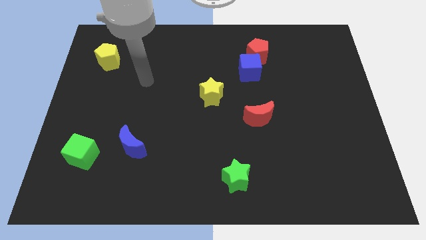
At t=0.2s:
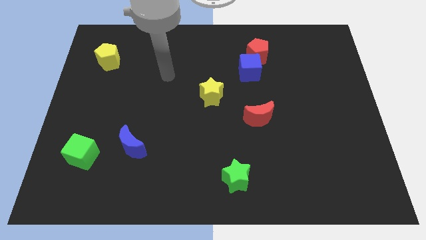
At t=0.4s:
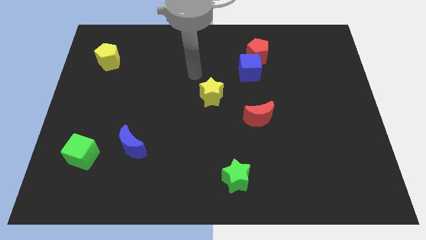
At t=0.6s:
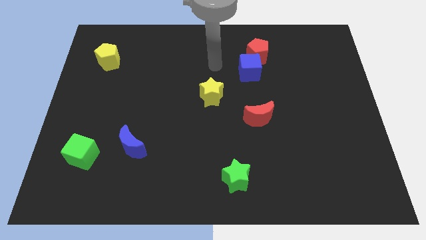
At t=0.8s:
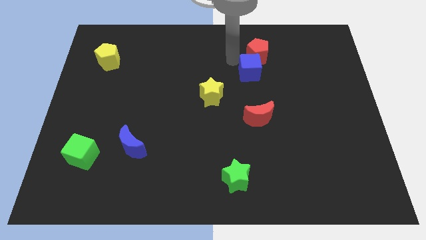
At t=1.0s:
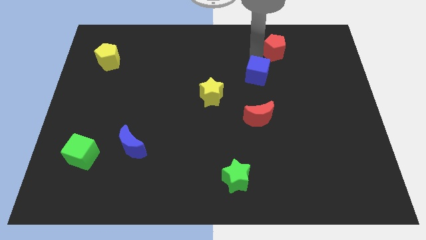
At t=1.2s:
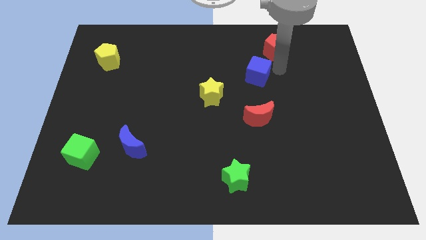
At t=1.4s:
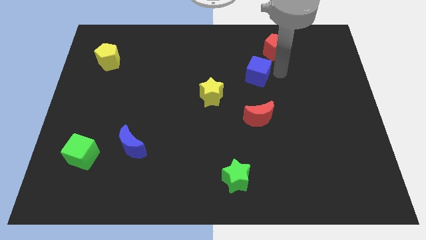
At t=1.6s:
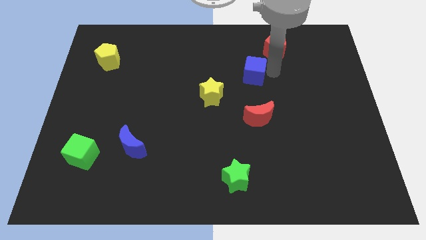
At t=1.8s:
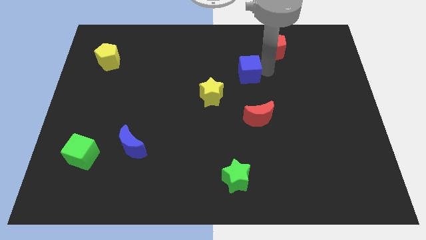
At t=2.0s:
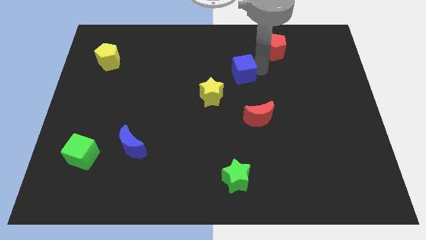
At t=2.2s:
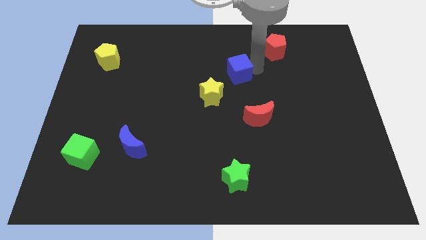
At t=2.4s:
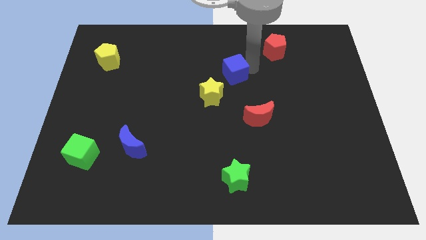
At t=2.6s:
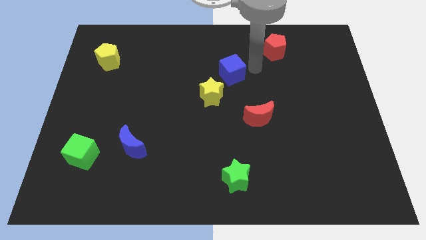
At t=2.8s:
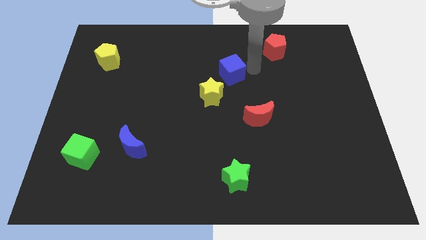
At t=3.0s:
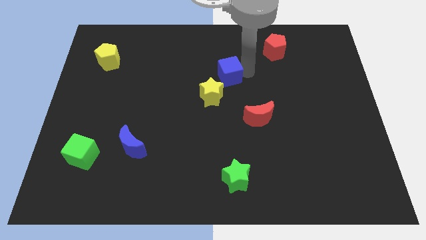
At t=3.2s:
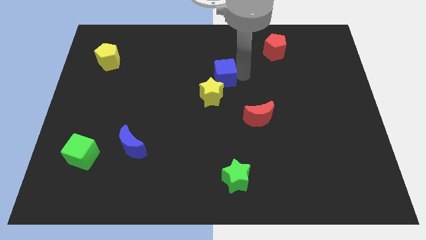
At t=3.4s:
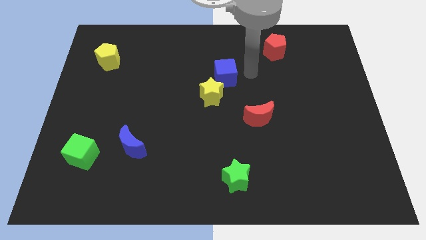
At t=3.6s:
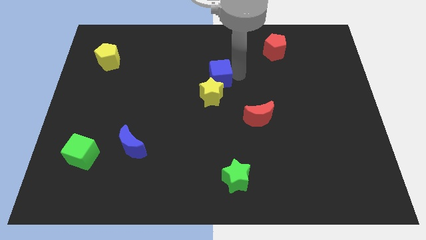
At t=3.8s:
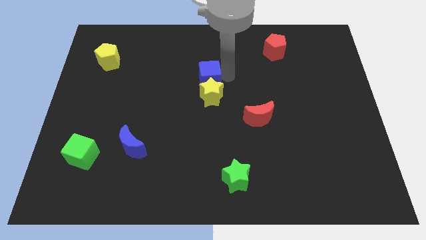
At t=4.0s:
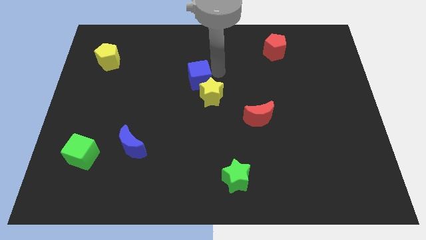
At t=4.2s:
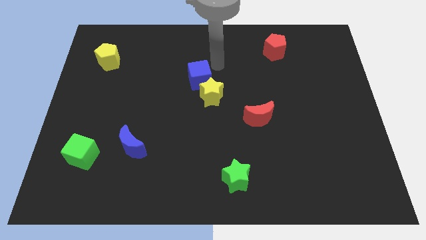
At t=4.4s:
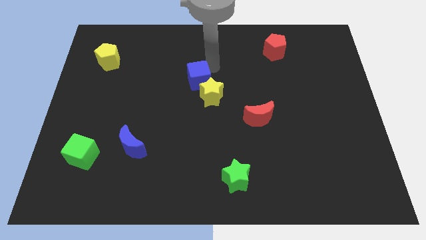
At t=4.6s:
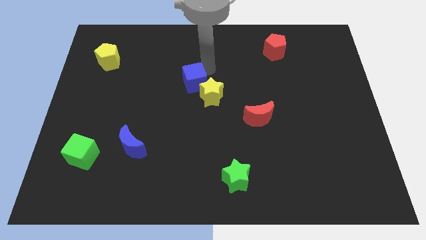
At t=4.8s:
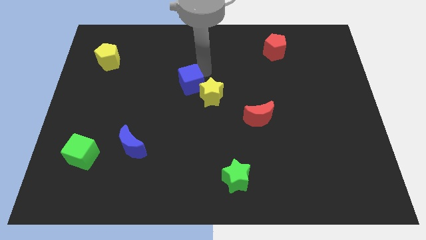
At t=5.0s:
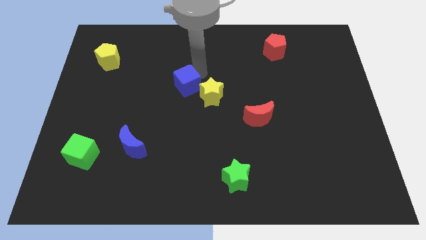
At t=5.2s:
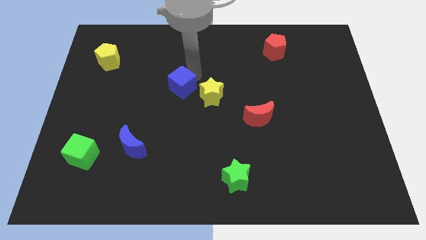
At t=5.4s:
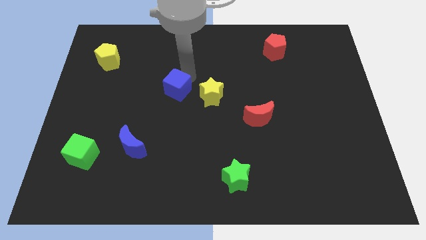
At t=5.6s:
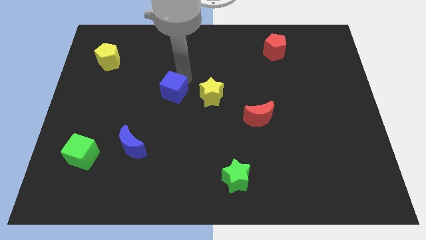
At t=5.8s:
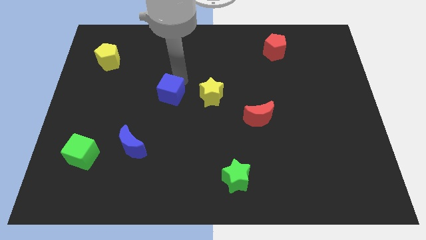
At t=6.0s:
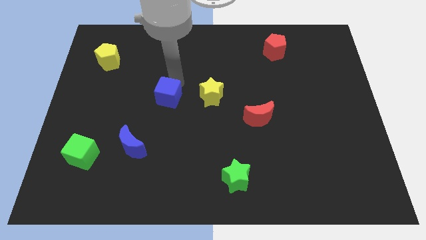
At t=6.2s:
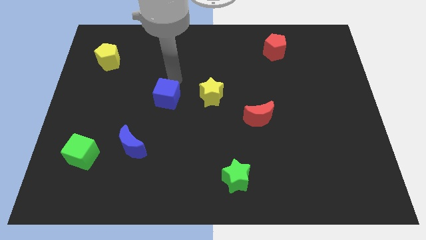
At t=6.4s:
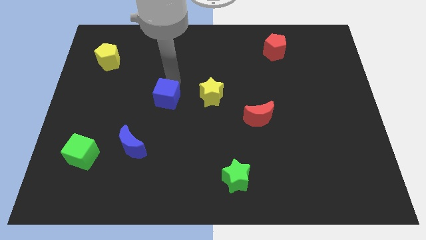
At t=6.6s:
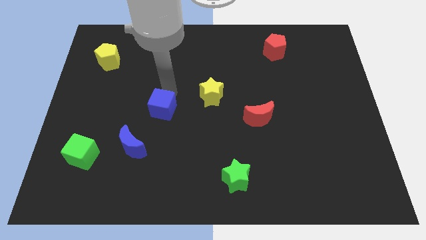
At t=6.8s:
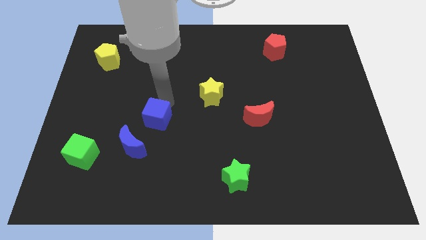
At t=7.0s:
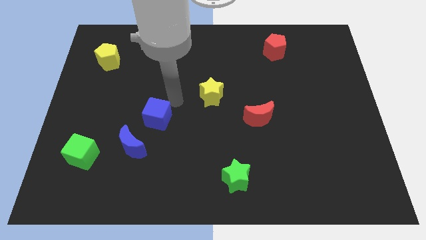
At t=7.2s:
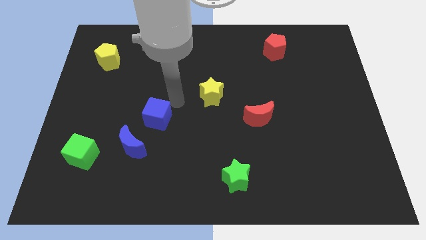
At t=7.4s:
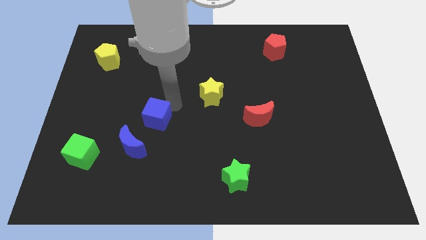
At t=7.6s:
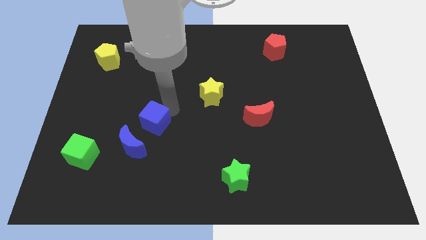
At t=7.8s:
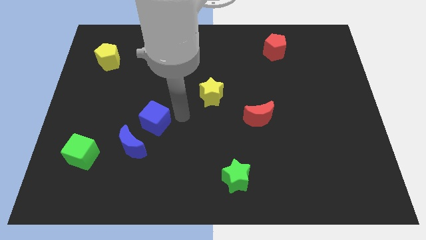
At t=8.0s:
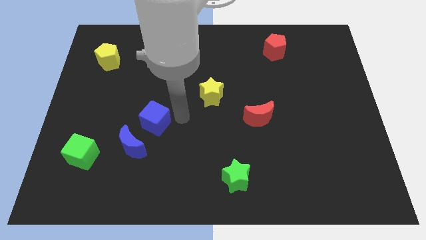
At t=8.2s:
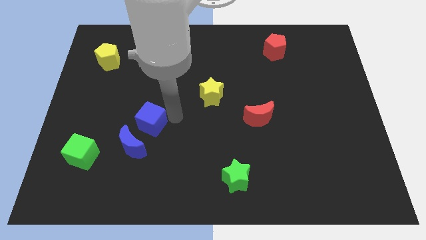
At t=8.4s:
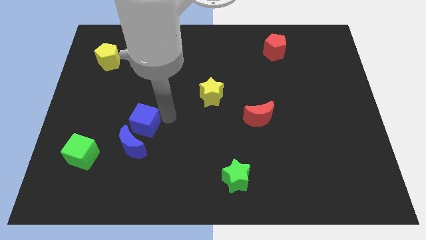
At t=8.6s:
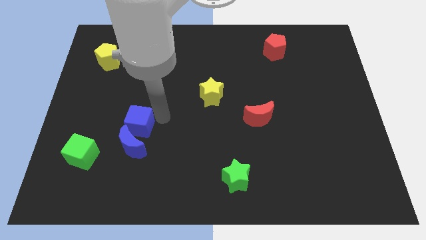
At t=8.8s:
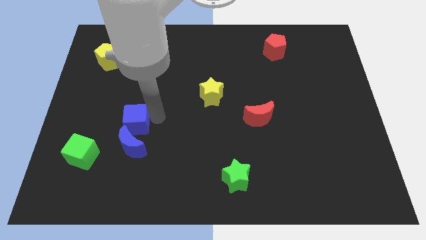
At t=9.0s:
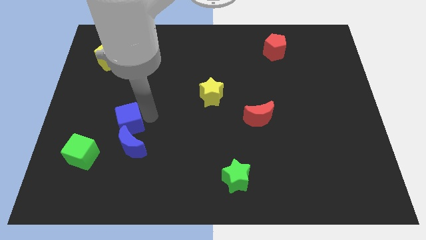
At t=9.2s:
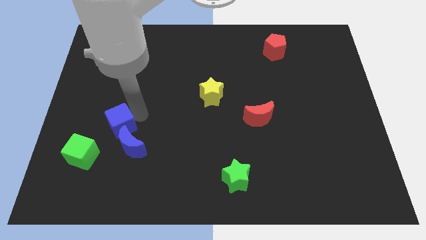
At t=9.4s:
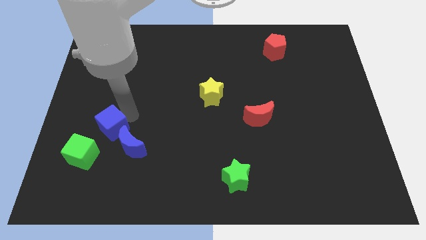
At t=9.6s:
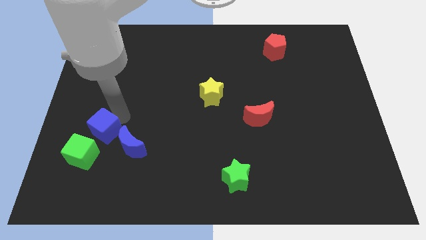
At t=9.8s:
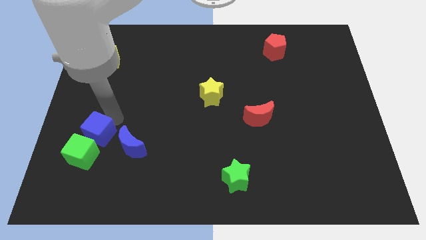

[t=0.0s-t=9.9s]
put the blue cube to the green cube

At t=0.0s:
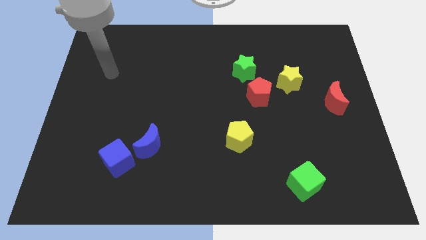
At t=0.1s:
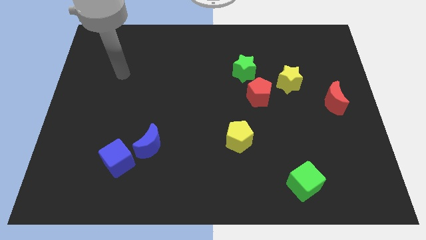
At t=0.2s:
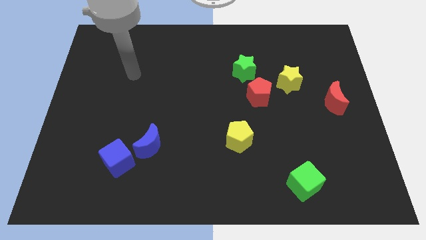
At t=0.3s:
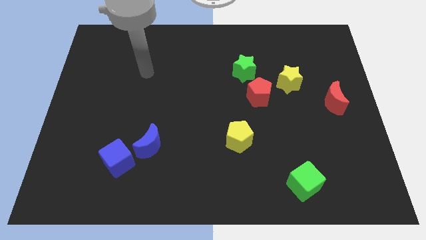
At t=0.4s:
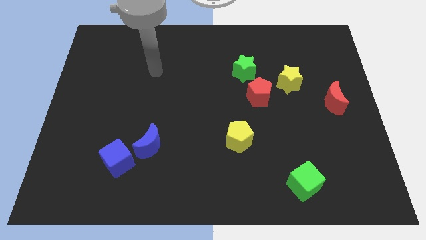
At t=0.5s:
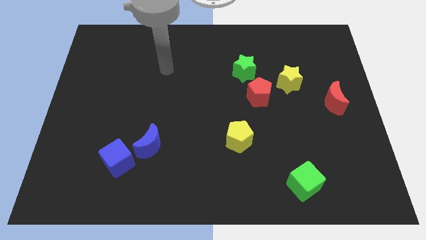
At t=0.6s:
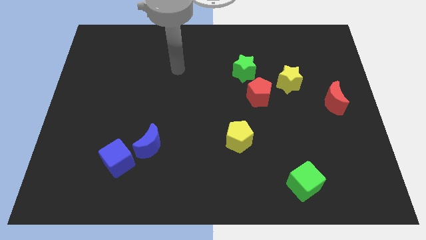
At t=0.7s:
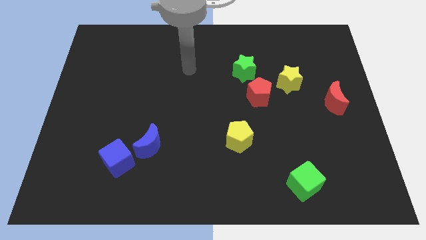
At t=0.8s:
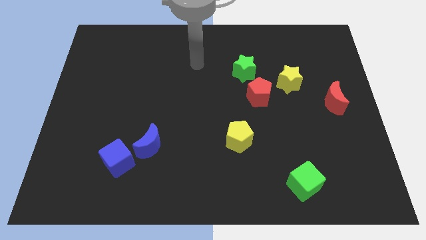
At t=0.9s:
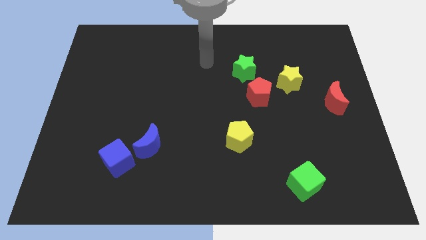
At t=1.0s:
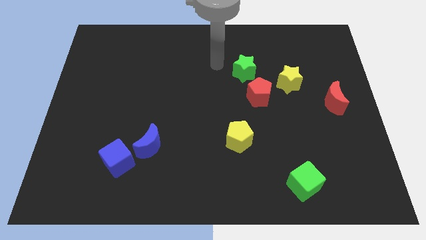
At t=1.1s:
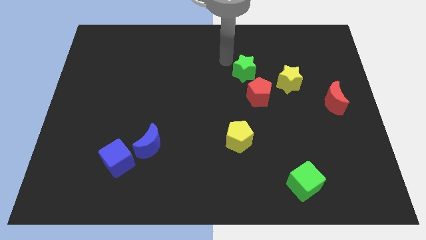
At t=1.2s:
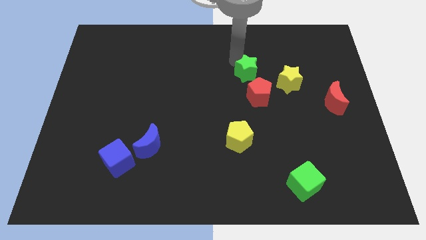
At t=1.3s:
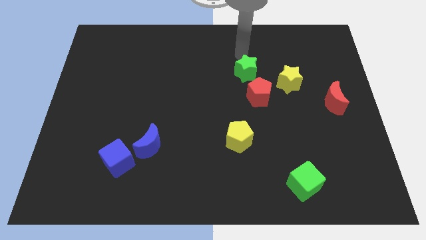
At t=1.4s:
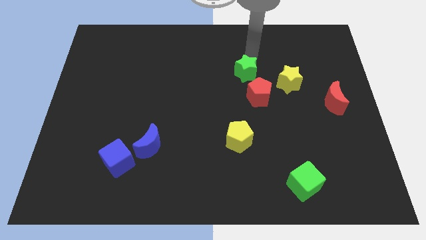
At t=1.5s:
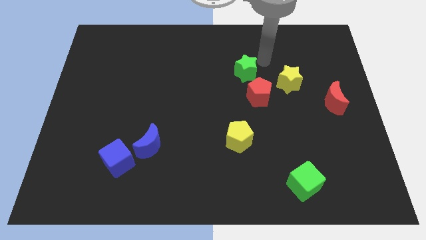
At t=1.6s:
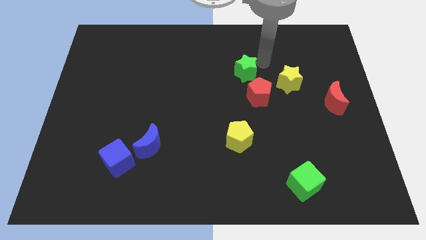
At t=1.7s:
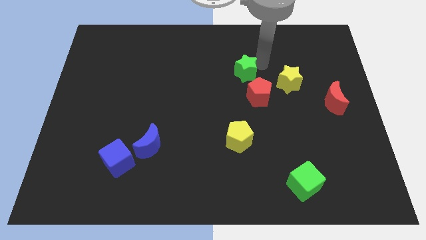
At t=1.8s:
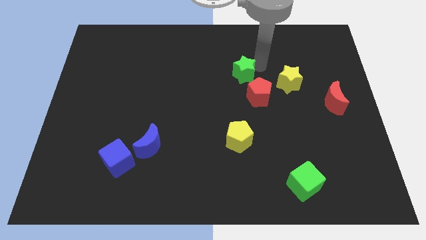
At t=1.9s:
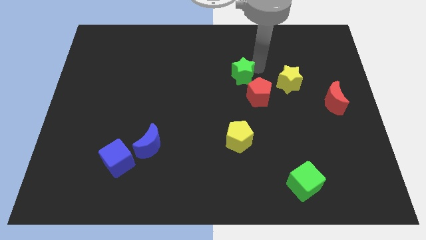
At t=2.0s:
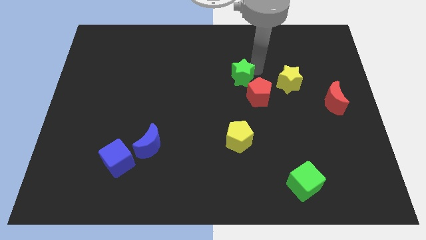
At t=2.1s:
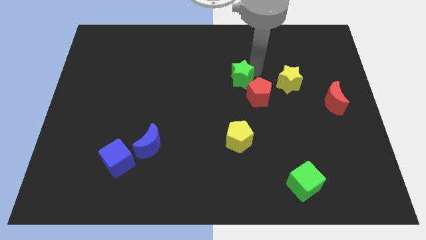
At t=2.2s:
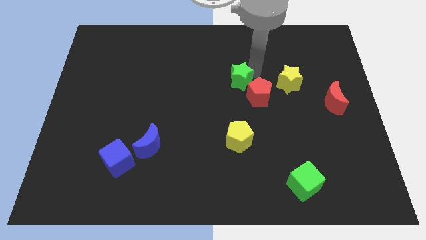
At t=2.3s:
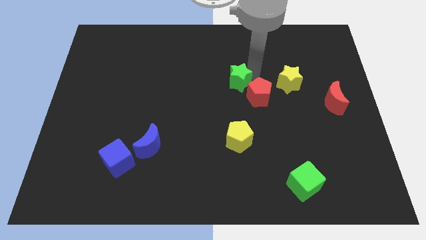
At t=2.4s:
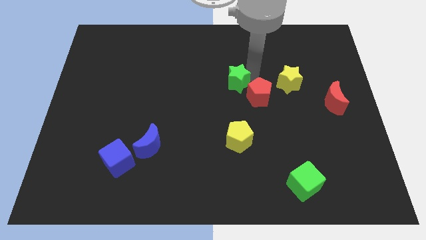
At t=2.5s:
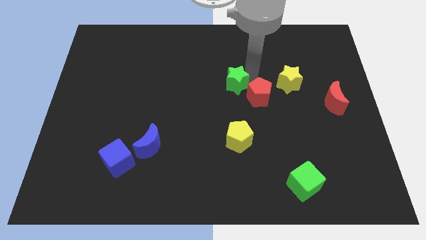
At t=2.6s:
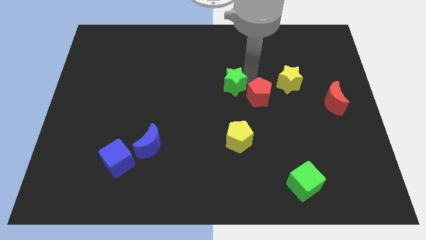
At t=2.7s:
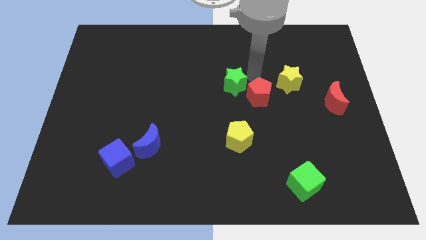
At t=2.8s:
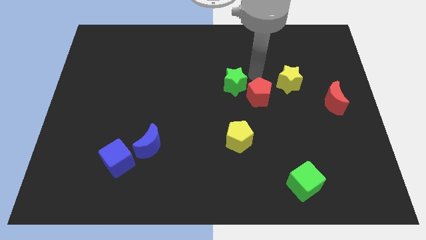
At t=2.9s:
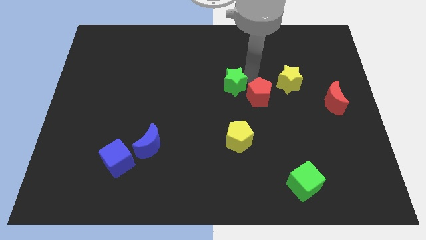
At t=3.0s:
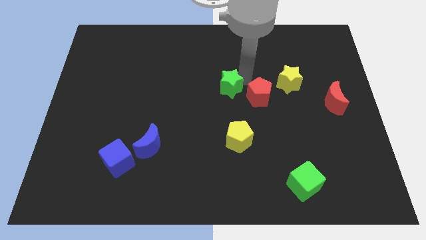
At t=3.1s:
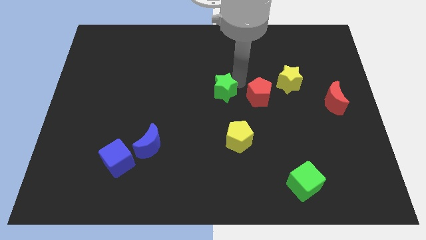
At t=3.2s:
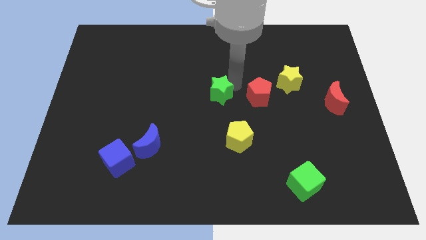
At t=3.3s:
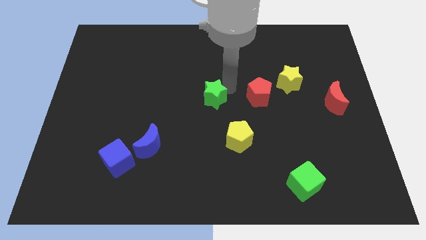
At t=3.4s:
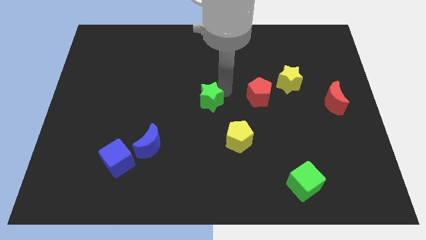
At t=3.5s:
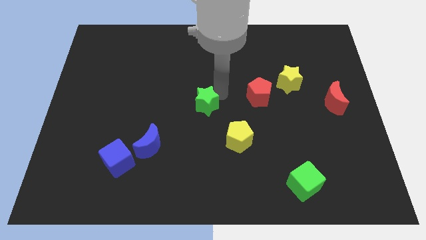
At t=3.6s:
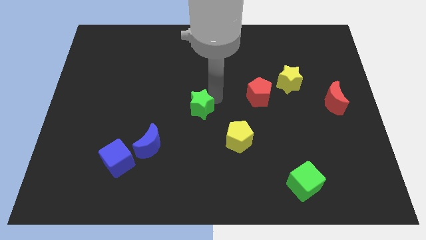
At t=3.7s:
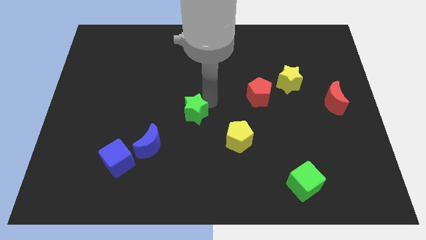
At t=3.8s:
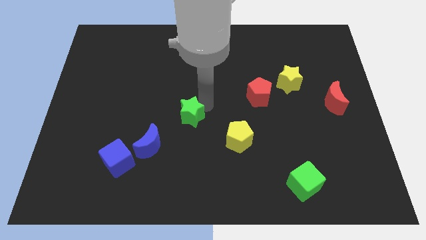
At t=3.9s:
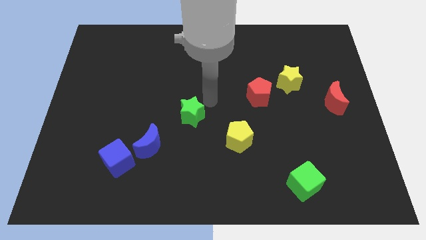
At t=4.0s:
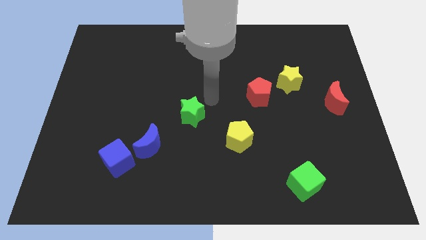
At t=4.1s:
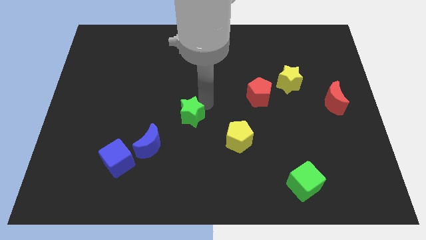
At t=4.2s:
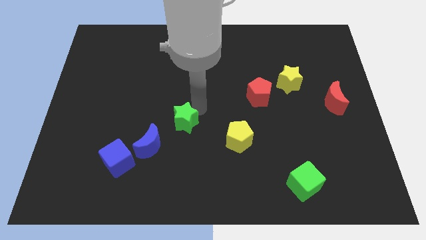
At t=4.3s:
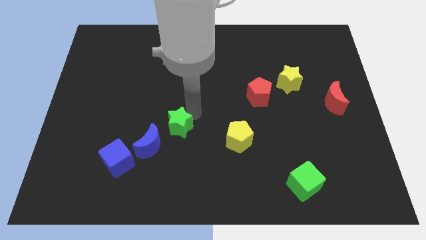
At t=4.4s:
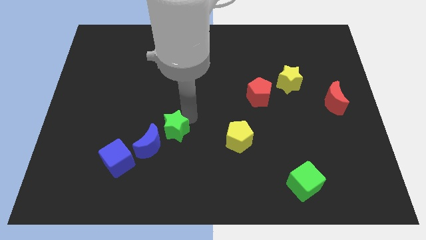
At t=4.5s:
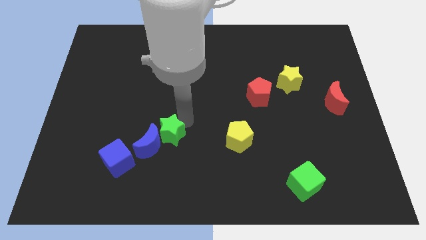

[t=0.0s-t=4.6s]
put the green star towards the blue moon
